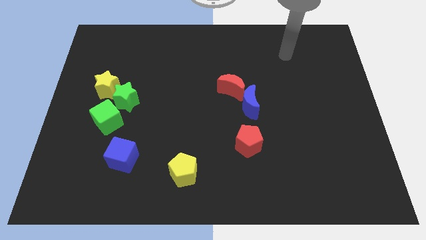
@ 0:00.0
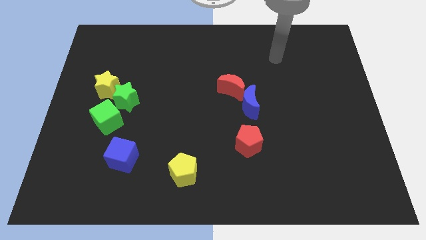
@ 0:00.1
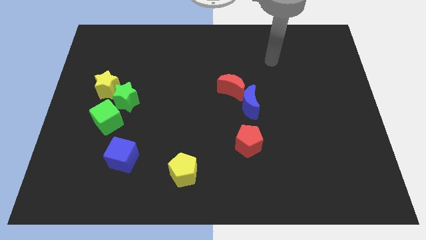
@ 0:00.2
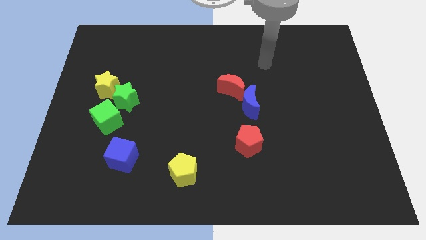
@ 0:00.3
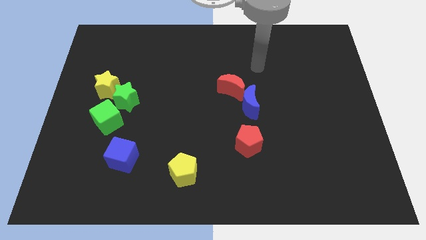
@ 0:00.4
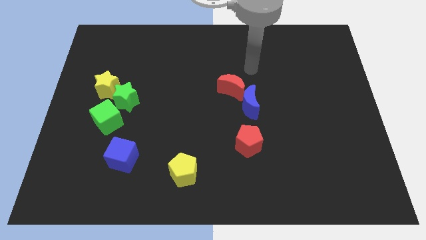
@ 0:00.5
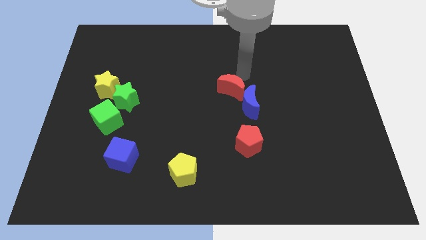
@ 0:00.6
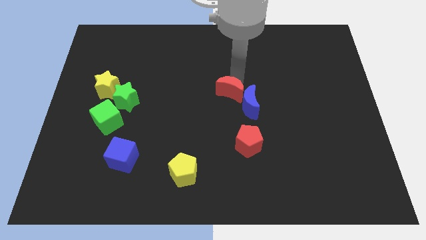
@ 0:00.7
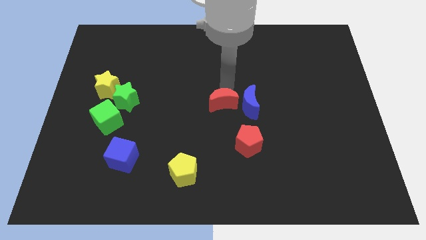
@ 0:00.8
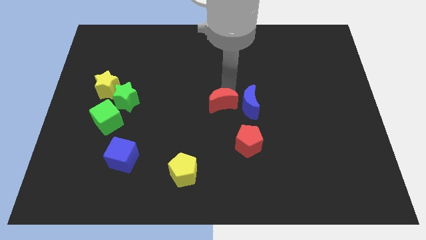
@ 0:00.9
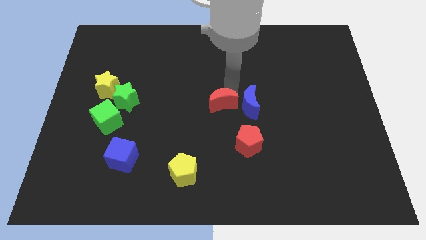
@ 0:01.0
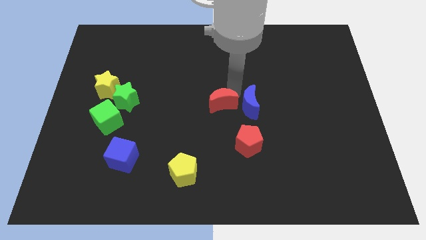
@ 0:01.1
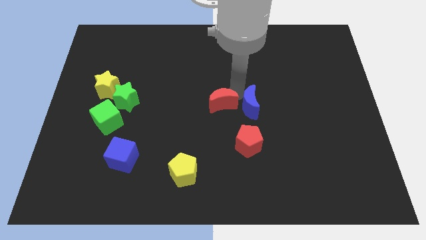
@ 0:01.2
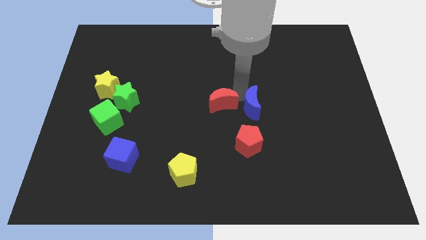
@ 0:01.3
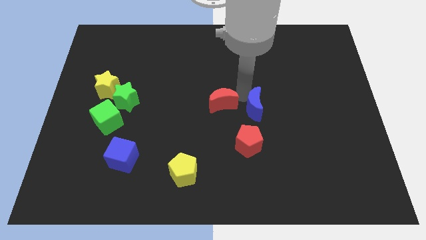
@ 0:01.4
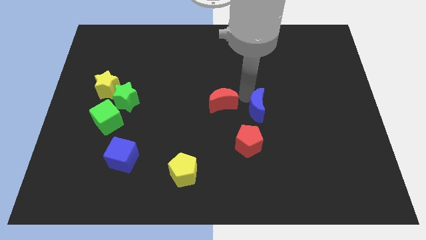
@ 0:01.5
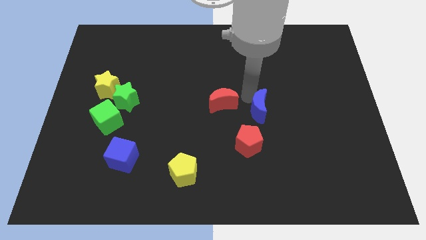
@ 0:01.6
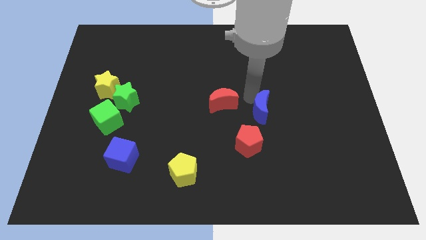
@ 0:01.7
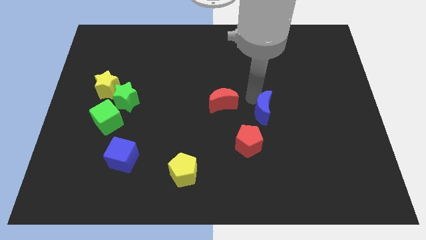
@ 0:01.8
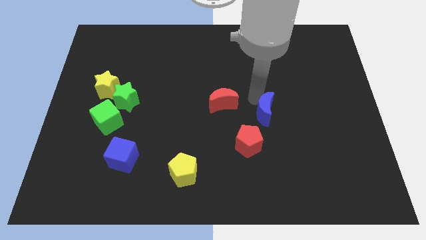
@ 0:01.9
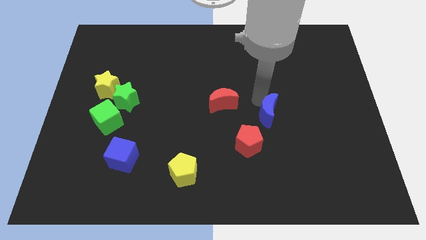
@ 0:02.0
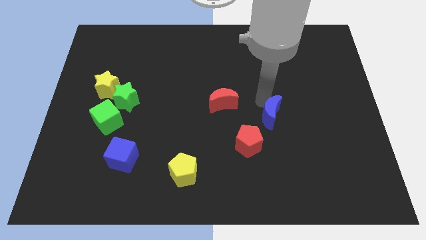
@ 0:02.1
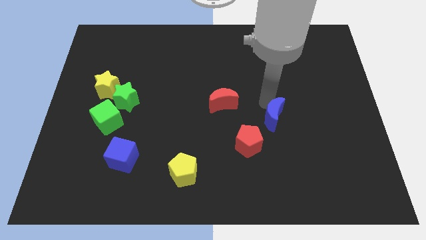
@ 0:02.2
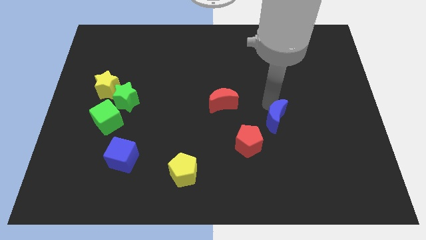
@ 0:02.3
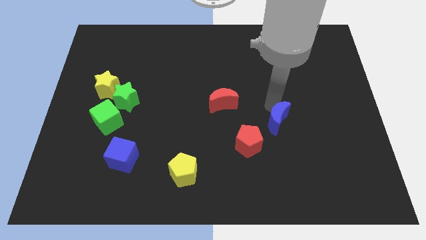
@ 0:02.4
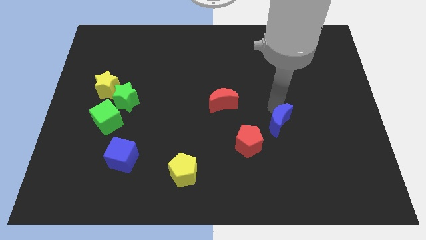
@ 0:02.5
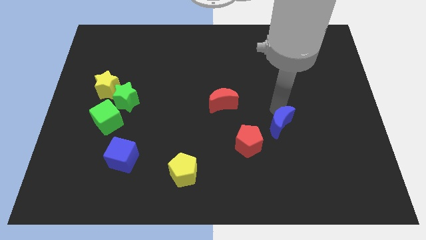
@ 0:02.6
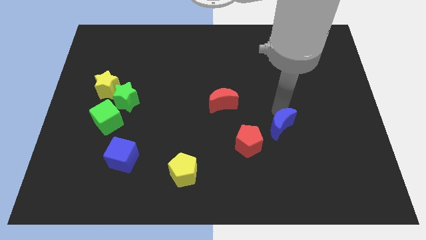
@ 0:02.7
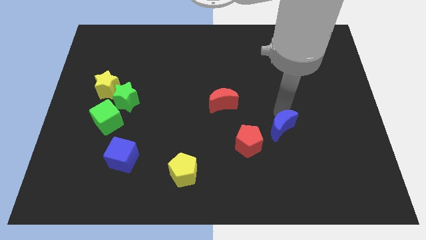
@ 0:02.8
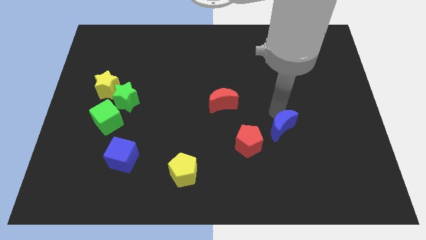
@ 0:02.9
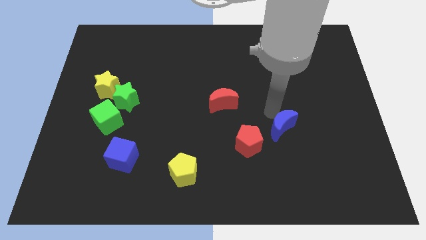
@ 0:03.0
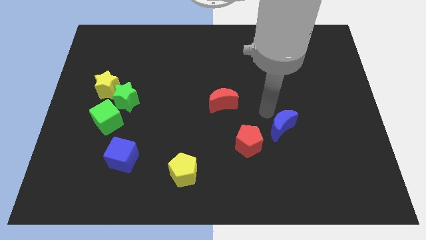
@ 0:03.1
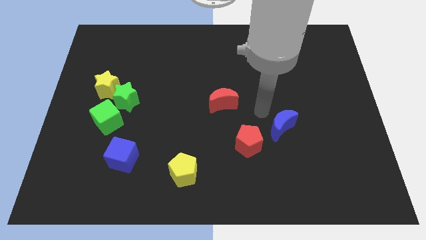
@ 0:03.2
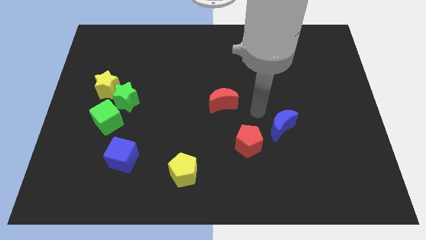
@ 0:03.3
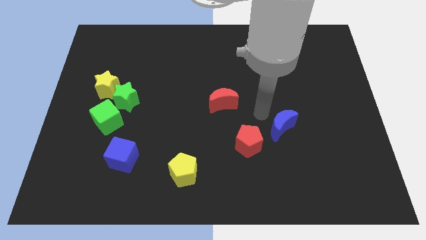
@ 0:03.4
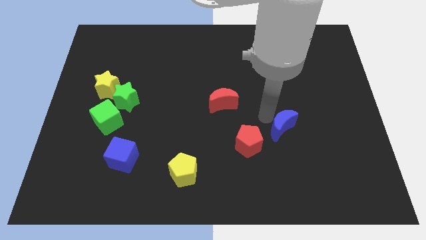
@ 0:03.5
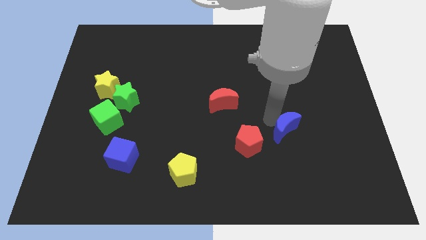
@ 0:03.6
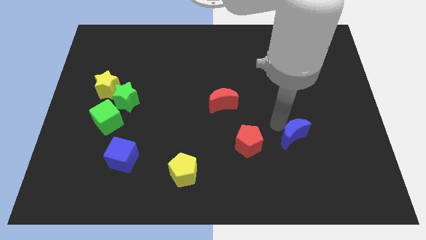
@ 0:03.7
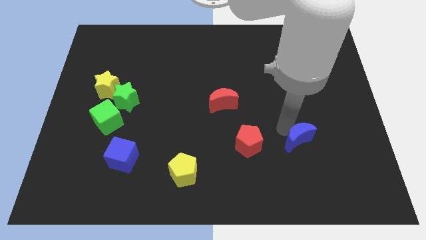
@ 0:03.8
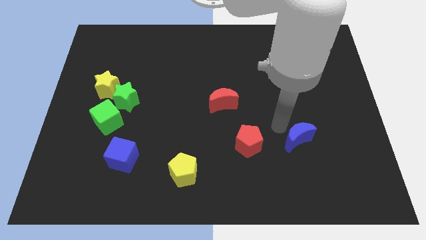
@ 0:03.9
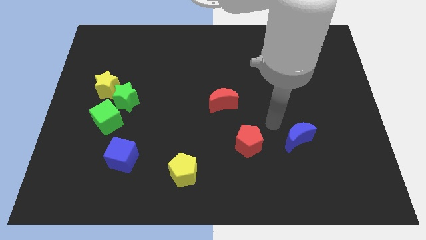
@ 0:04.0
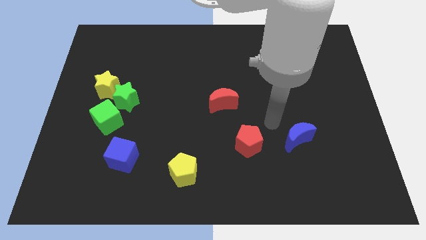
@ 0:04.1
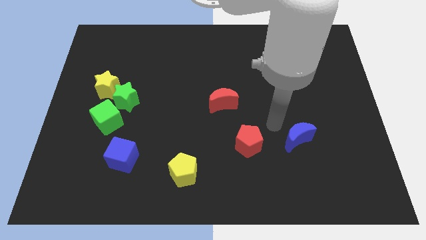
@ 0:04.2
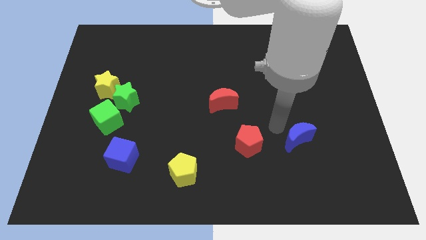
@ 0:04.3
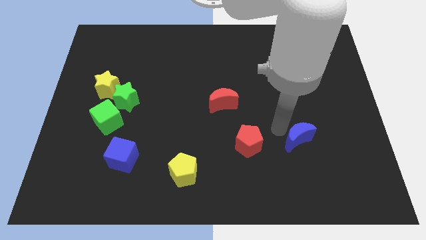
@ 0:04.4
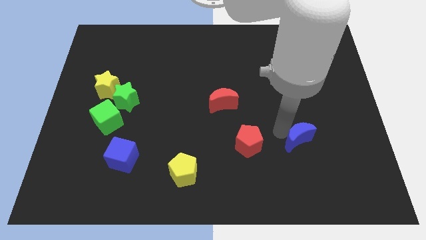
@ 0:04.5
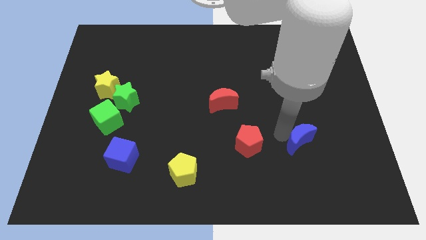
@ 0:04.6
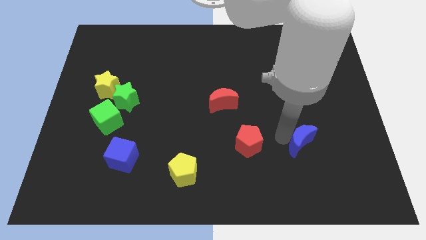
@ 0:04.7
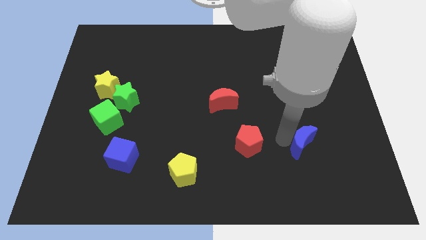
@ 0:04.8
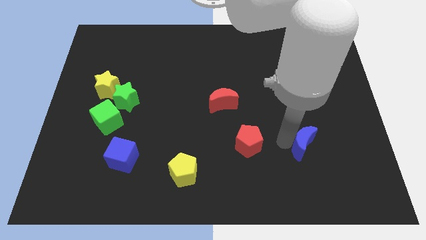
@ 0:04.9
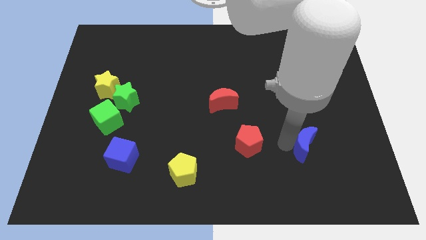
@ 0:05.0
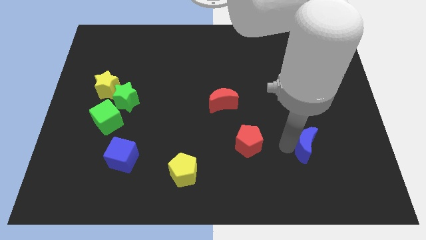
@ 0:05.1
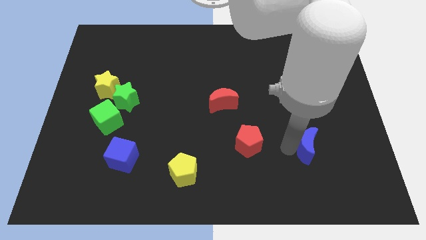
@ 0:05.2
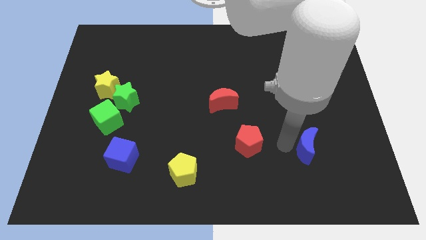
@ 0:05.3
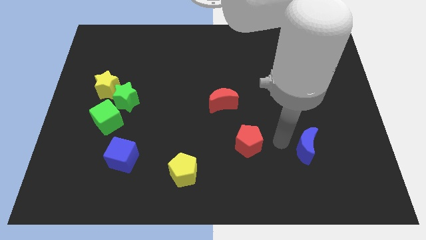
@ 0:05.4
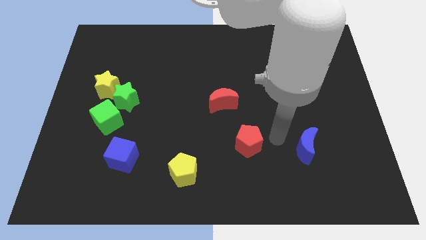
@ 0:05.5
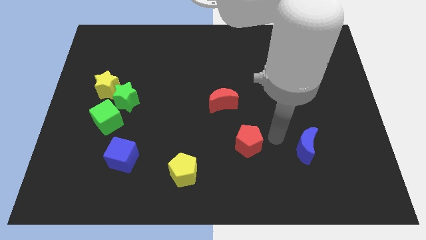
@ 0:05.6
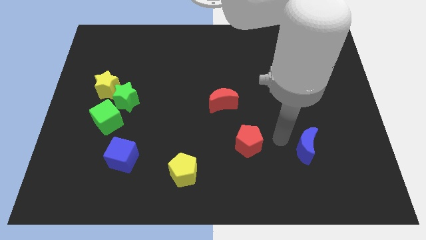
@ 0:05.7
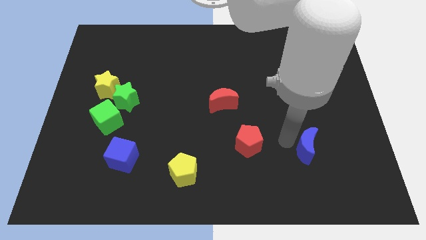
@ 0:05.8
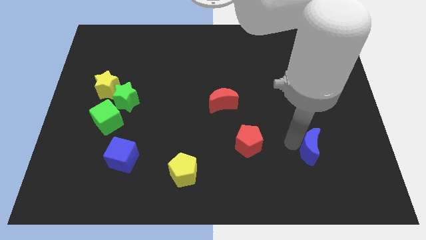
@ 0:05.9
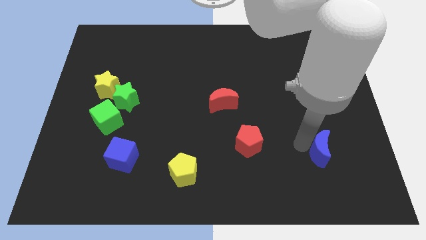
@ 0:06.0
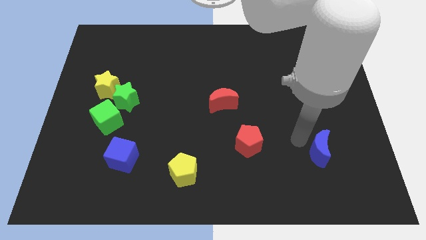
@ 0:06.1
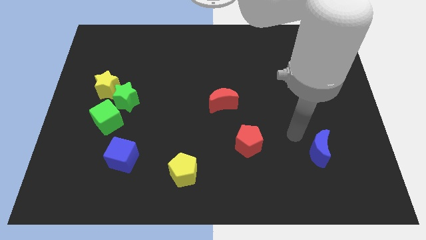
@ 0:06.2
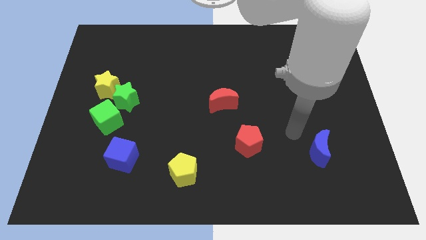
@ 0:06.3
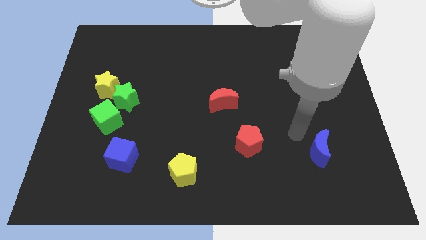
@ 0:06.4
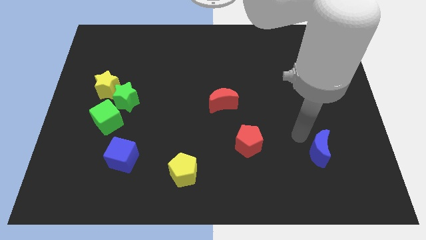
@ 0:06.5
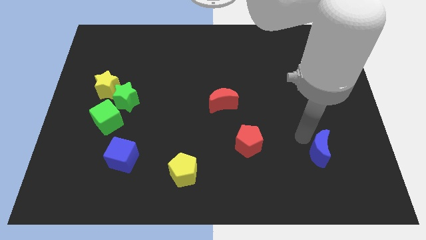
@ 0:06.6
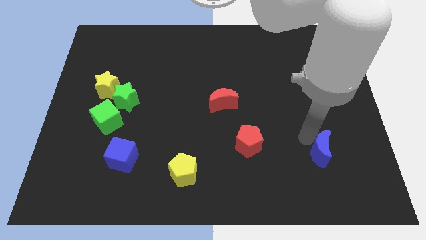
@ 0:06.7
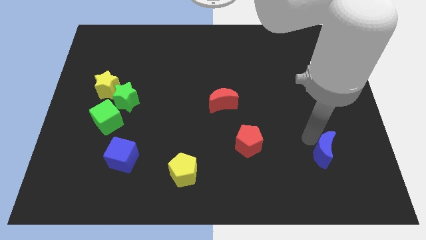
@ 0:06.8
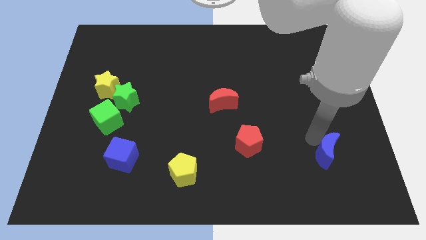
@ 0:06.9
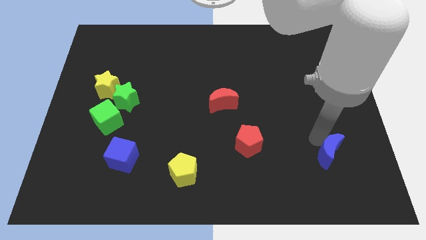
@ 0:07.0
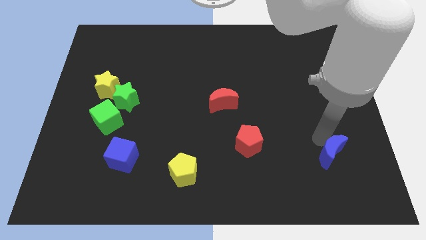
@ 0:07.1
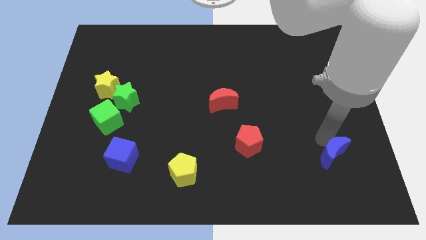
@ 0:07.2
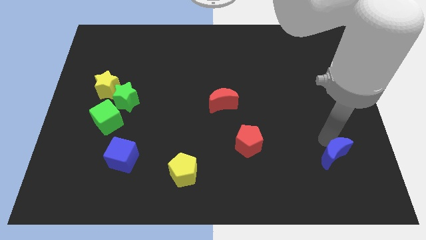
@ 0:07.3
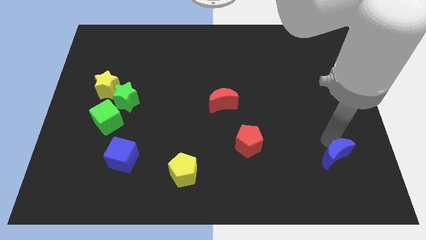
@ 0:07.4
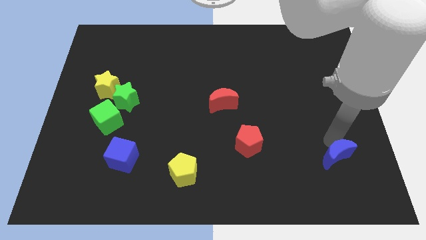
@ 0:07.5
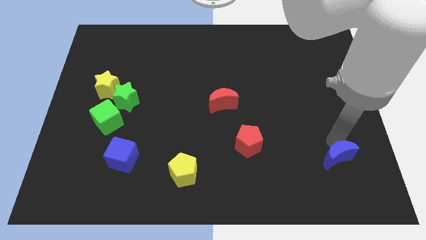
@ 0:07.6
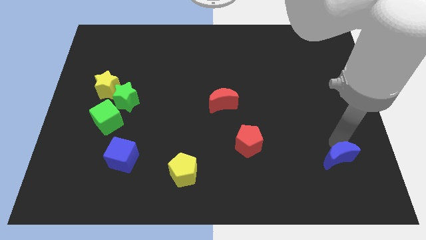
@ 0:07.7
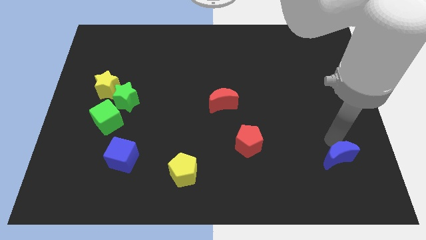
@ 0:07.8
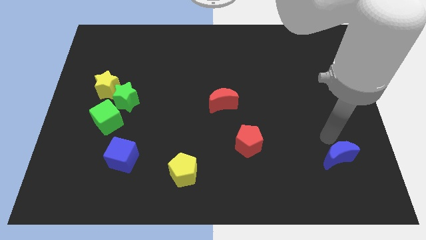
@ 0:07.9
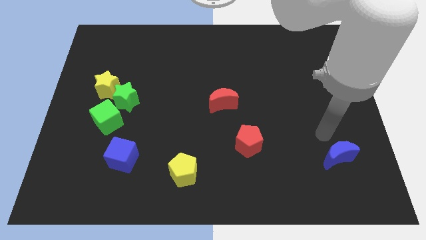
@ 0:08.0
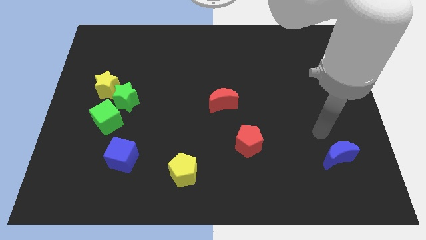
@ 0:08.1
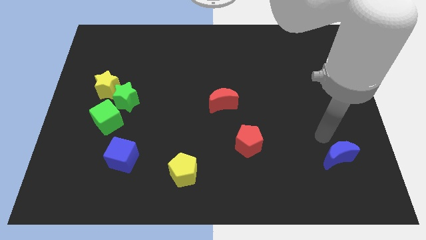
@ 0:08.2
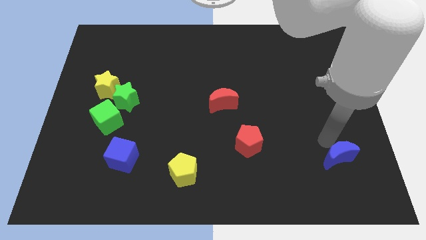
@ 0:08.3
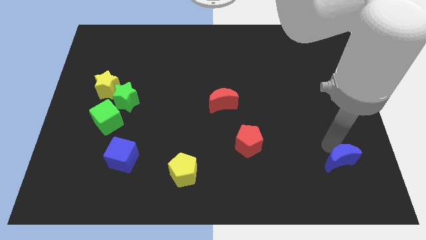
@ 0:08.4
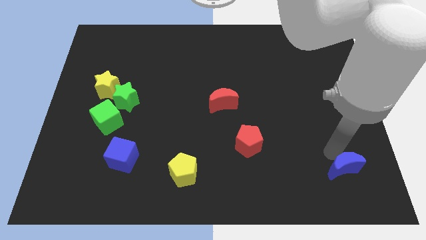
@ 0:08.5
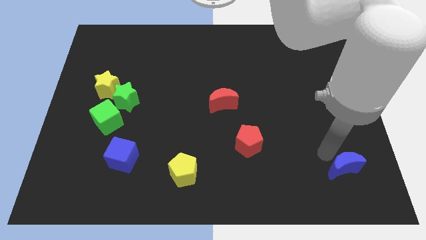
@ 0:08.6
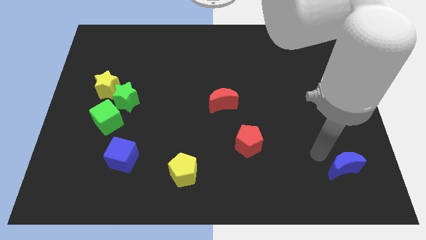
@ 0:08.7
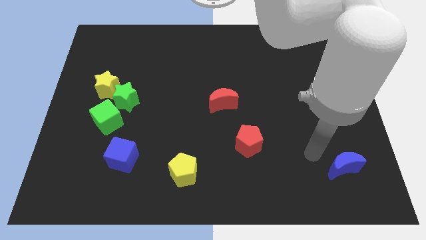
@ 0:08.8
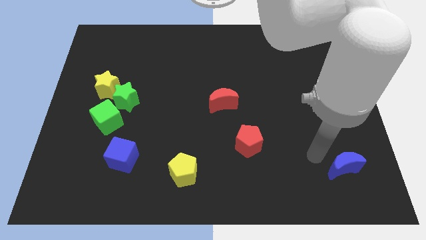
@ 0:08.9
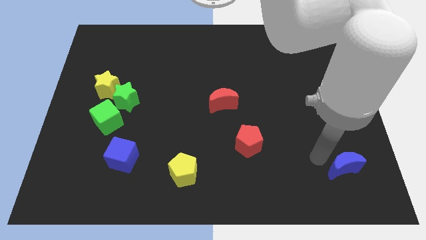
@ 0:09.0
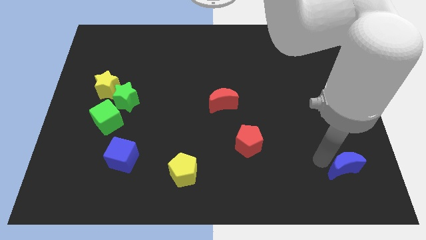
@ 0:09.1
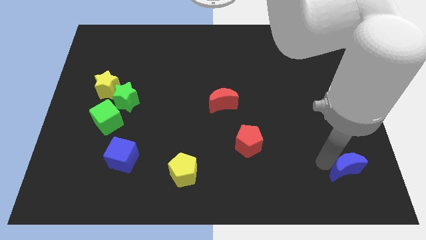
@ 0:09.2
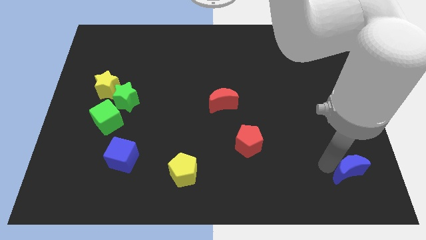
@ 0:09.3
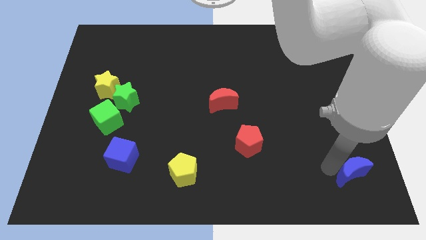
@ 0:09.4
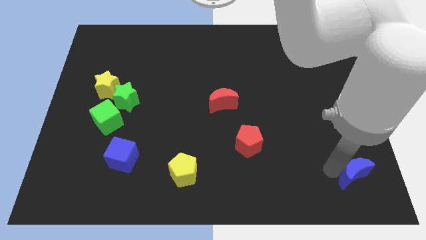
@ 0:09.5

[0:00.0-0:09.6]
slide the blue moon to the bottom right corner
